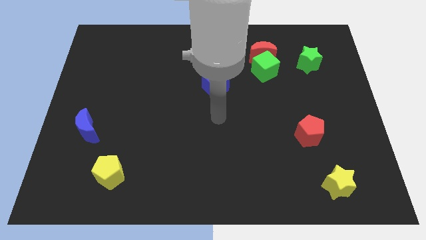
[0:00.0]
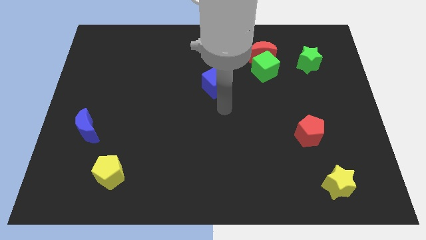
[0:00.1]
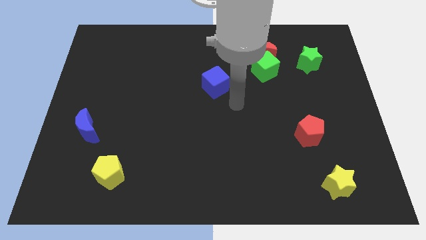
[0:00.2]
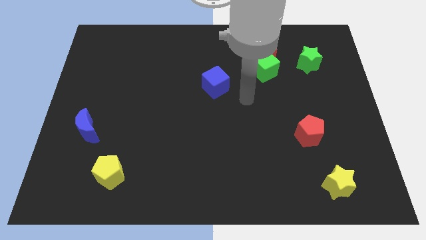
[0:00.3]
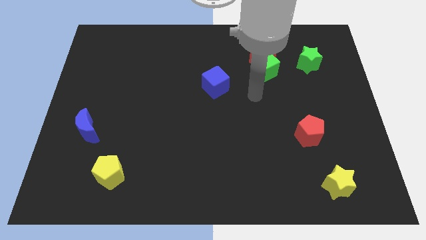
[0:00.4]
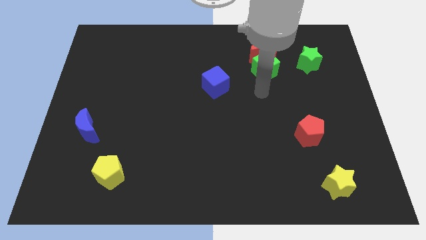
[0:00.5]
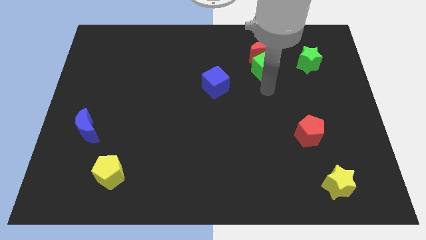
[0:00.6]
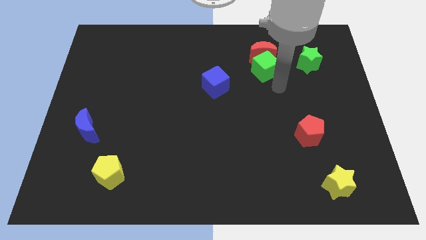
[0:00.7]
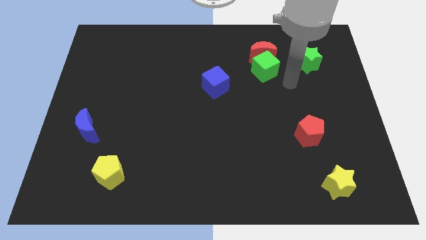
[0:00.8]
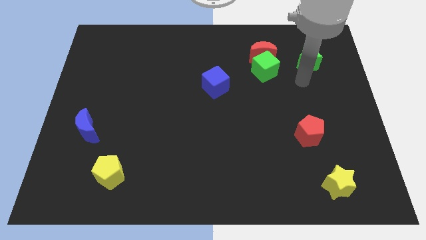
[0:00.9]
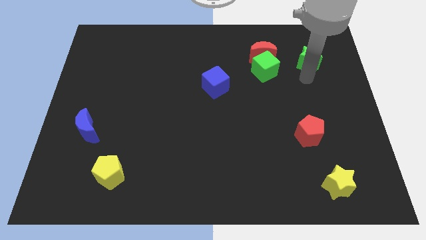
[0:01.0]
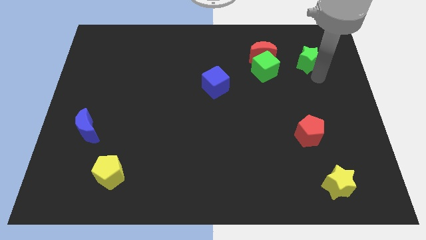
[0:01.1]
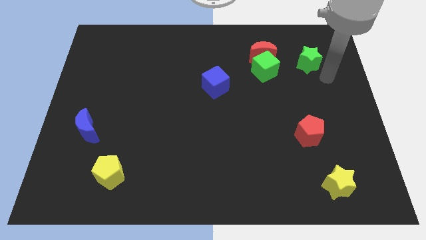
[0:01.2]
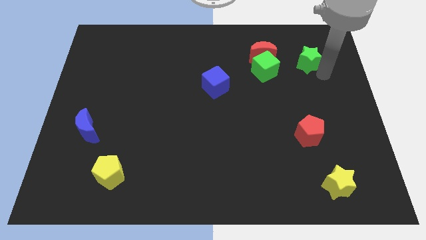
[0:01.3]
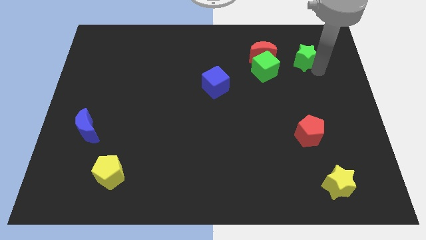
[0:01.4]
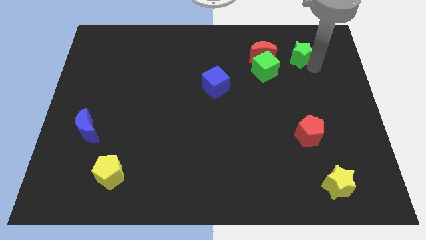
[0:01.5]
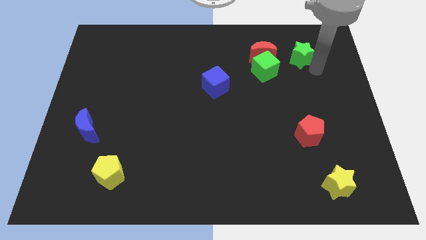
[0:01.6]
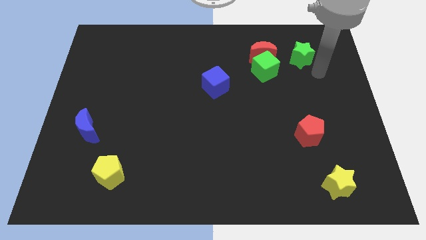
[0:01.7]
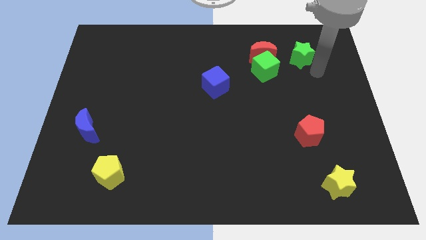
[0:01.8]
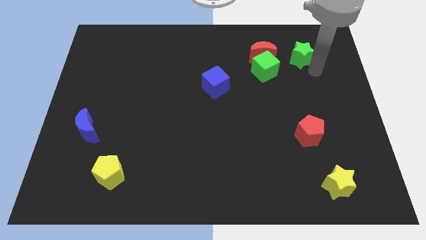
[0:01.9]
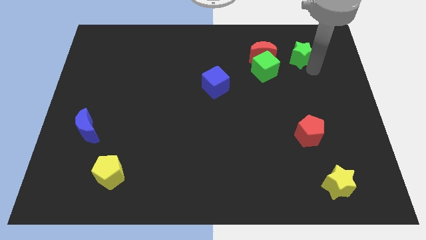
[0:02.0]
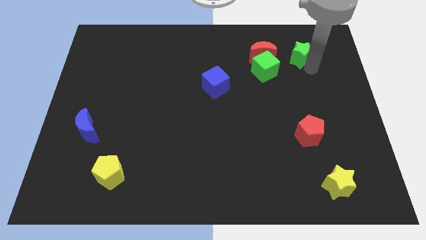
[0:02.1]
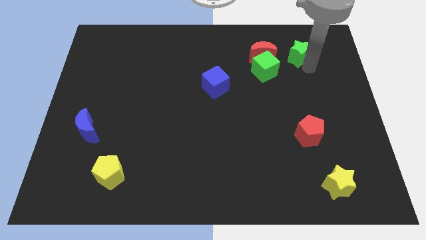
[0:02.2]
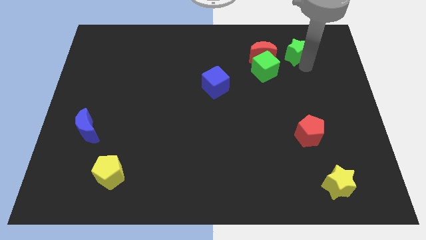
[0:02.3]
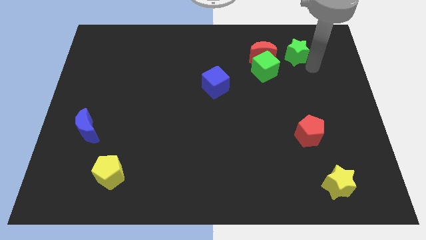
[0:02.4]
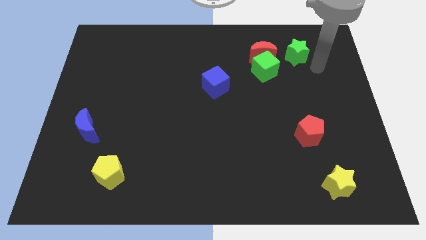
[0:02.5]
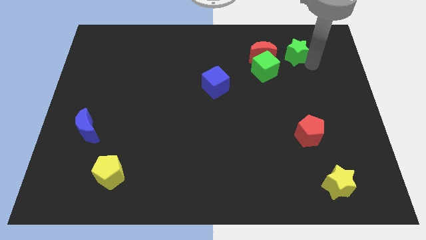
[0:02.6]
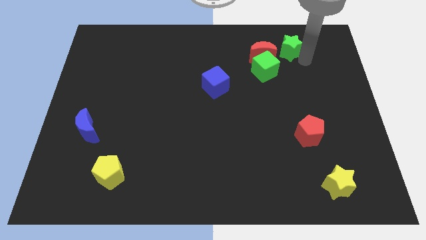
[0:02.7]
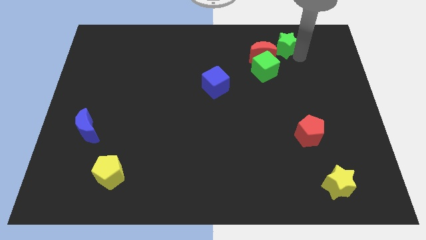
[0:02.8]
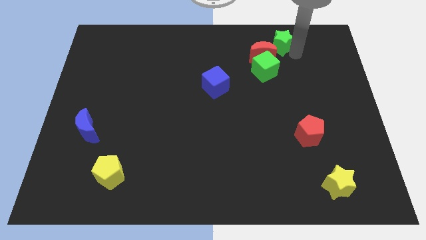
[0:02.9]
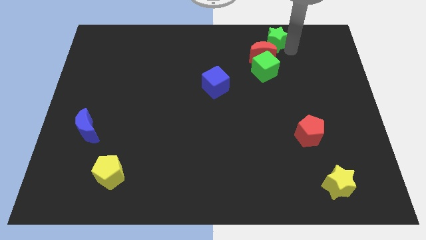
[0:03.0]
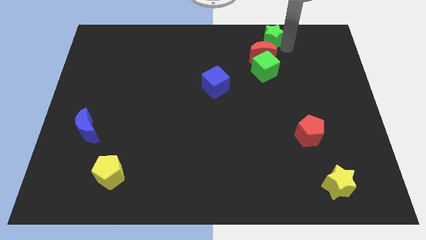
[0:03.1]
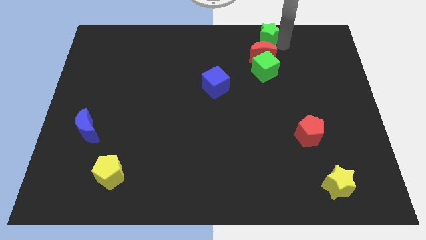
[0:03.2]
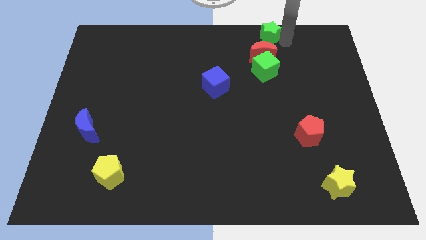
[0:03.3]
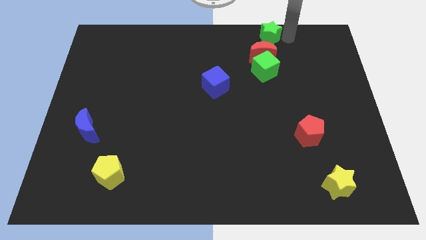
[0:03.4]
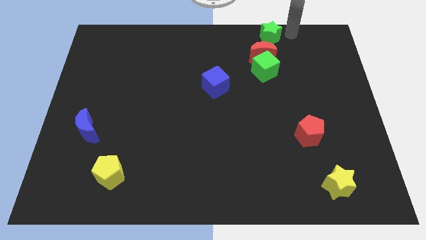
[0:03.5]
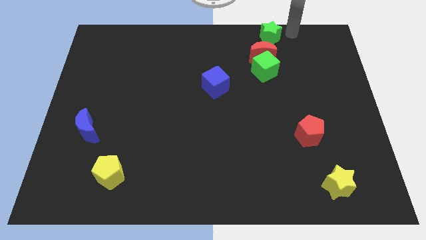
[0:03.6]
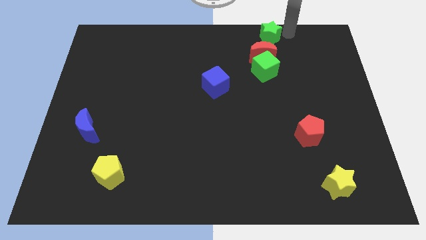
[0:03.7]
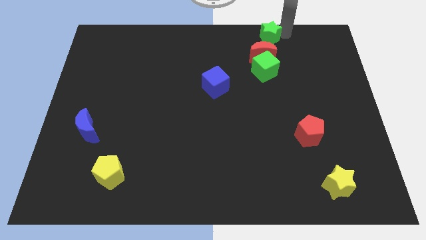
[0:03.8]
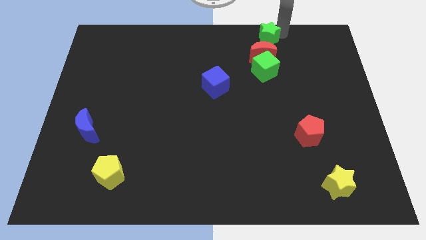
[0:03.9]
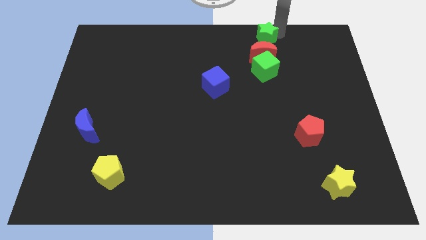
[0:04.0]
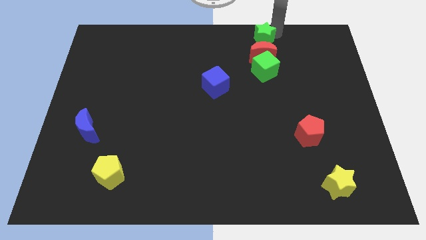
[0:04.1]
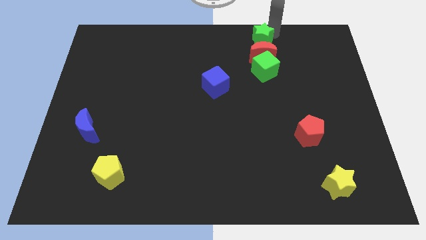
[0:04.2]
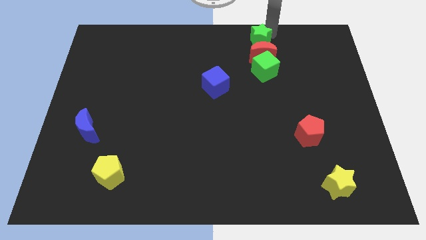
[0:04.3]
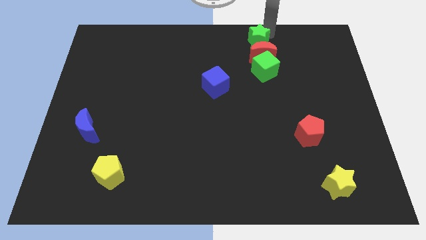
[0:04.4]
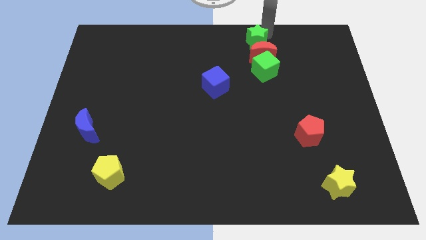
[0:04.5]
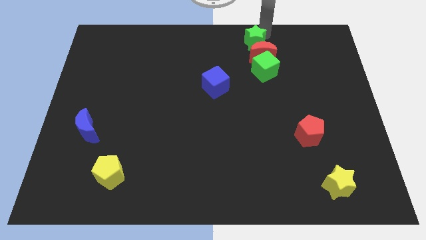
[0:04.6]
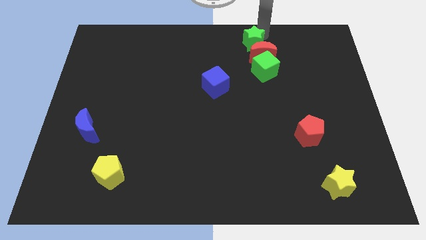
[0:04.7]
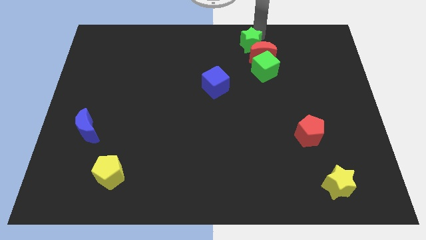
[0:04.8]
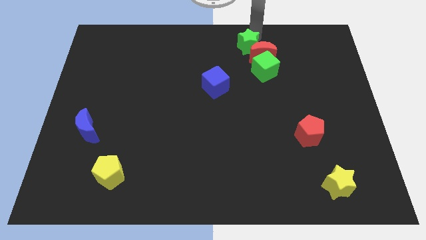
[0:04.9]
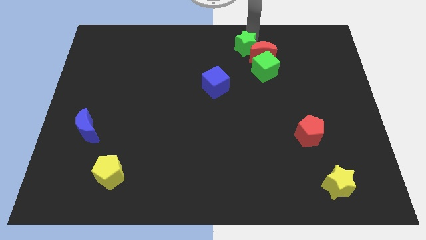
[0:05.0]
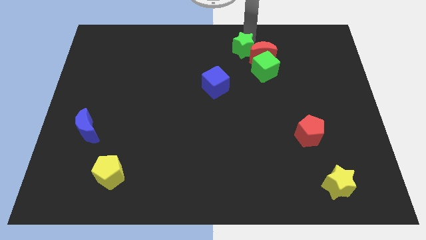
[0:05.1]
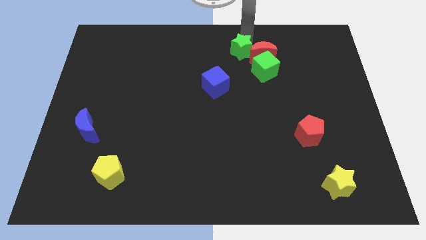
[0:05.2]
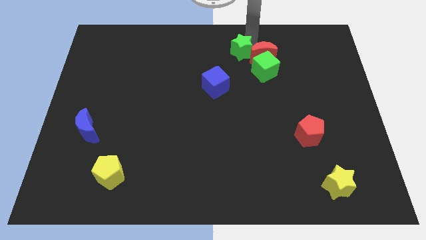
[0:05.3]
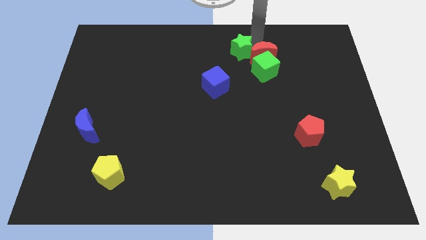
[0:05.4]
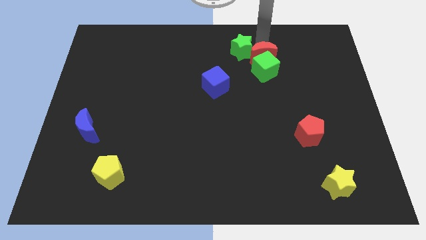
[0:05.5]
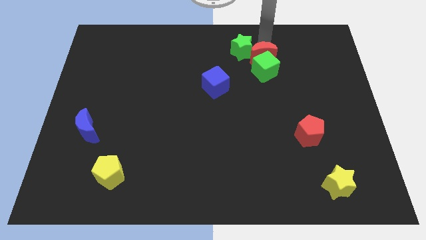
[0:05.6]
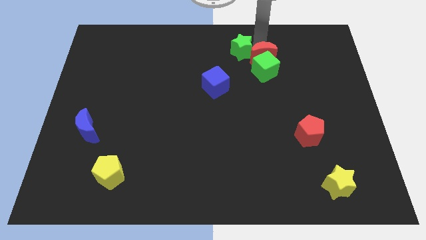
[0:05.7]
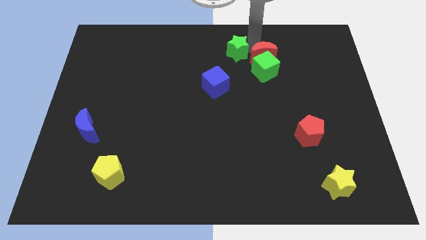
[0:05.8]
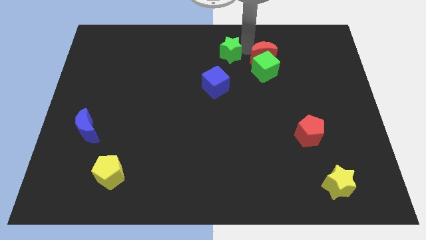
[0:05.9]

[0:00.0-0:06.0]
slide the green star to the top side of the blue cube

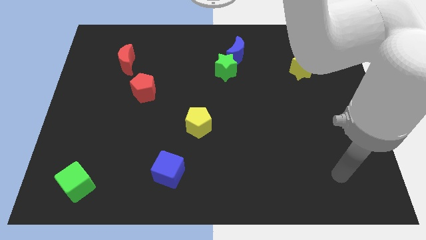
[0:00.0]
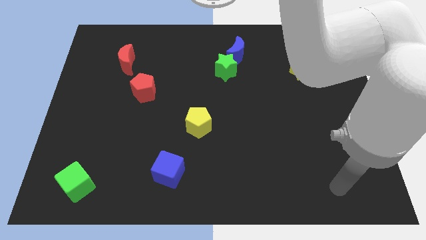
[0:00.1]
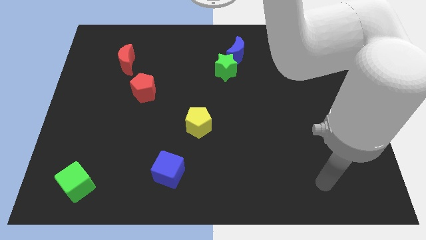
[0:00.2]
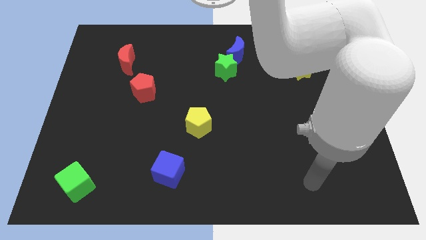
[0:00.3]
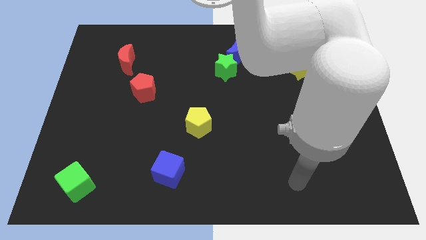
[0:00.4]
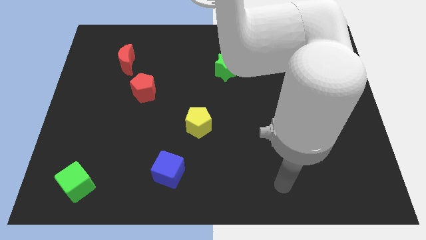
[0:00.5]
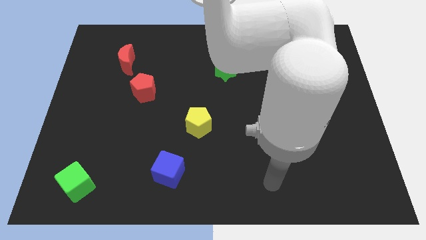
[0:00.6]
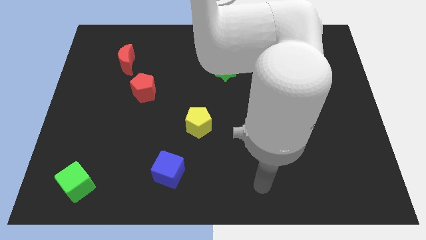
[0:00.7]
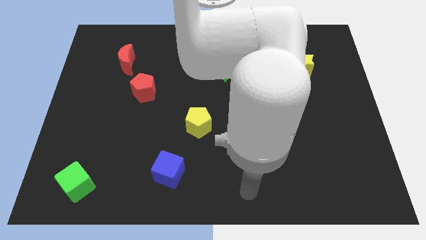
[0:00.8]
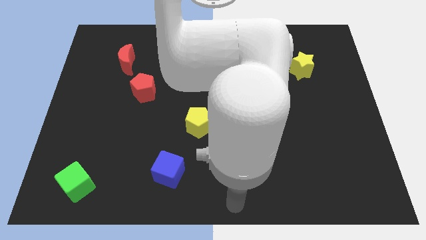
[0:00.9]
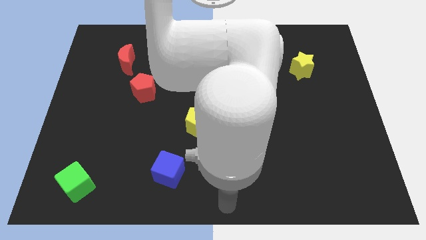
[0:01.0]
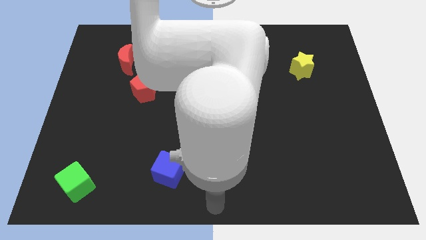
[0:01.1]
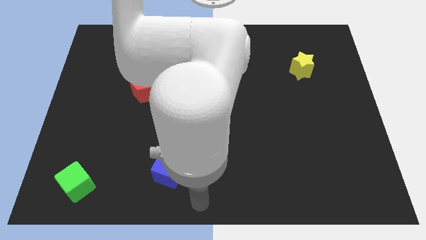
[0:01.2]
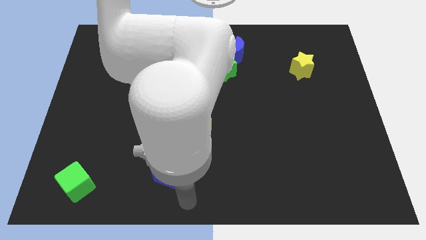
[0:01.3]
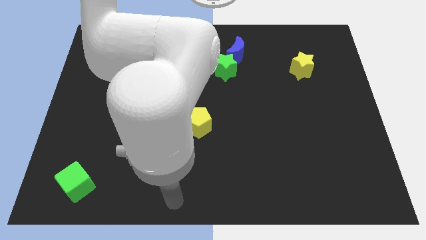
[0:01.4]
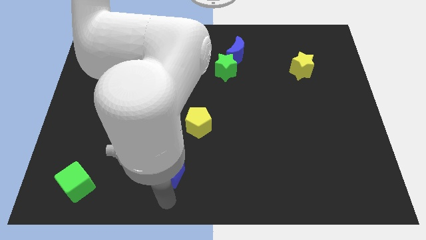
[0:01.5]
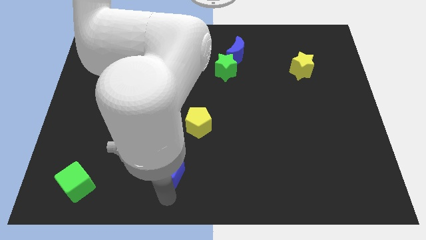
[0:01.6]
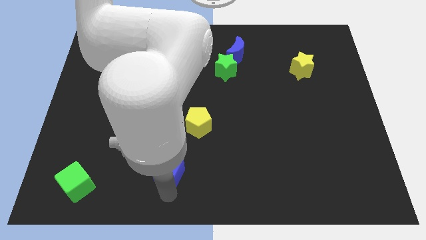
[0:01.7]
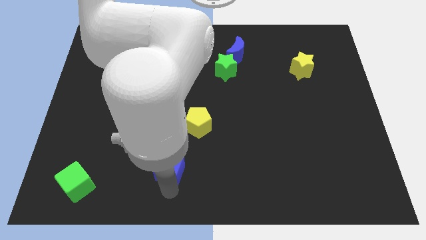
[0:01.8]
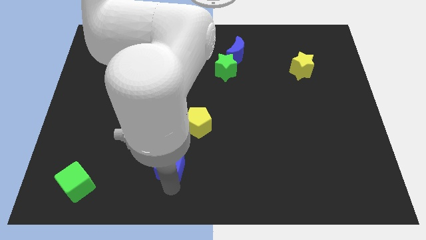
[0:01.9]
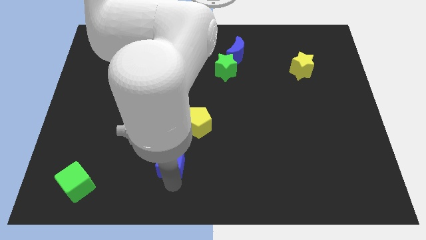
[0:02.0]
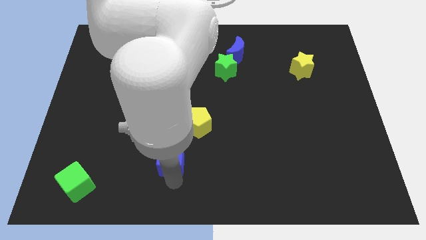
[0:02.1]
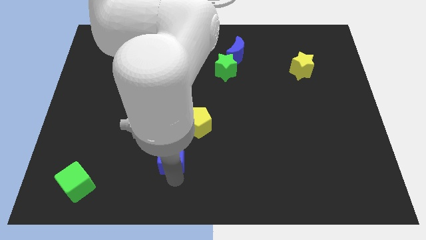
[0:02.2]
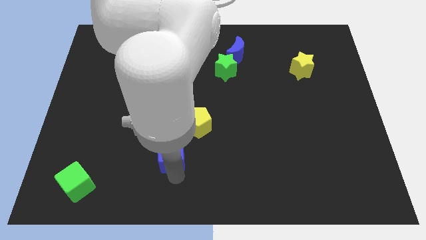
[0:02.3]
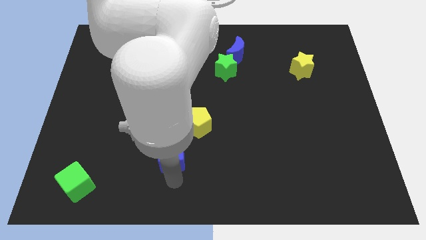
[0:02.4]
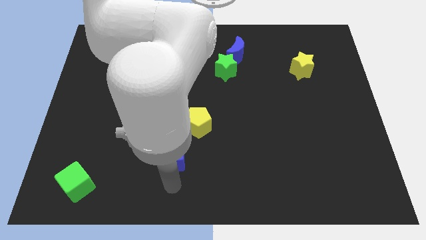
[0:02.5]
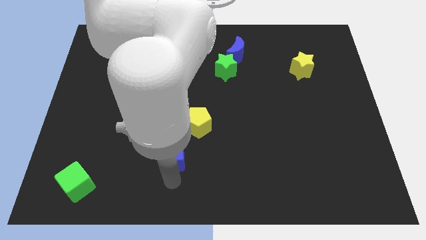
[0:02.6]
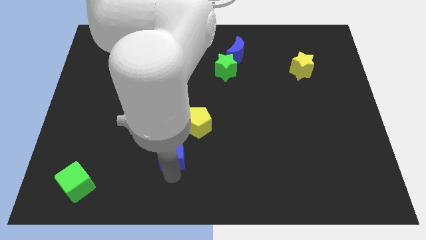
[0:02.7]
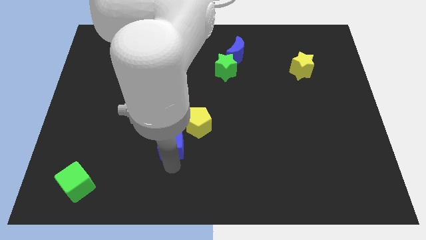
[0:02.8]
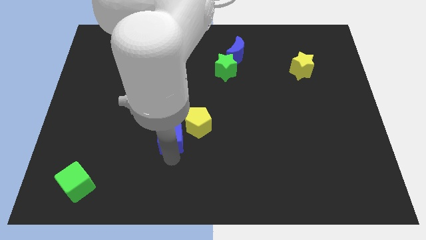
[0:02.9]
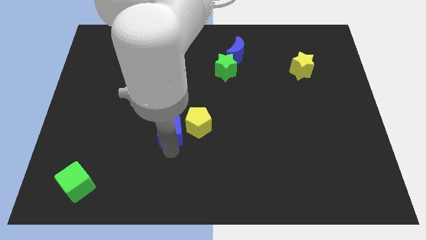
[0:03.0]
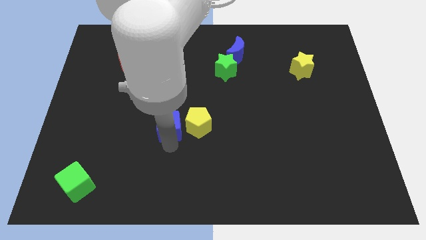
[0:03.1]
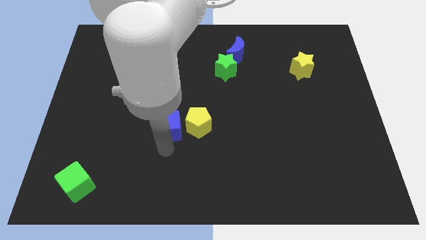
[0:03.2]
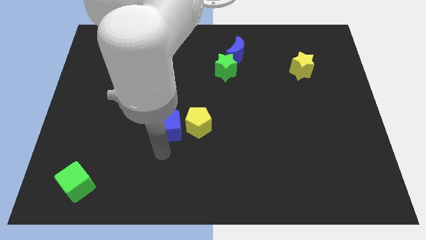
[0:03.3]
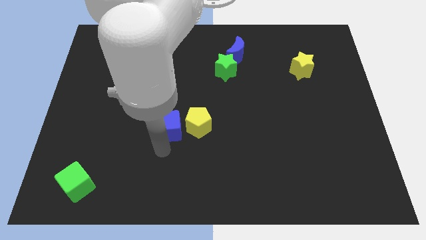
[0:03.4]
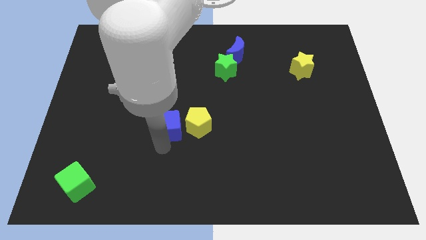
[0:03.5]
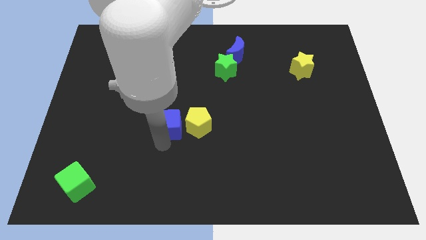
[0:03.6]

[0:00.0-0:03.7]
move the blue cube to the top left of the yellow pentagon
